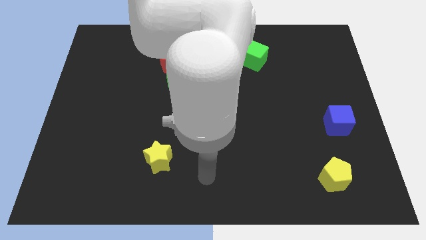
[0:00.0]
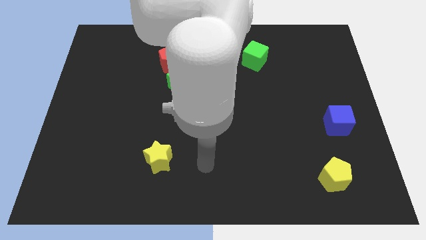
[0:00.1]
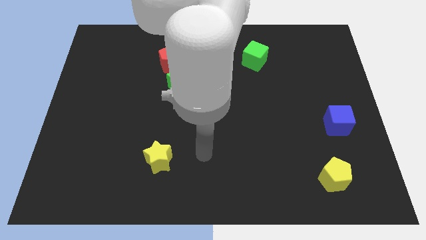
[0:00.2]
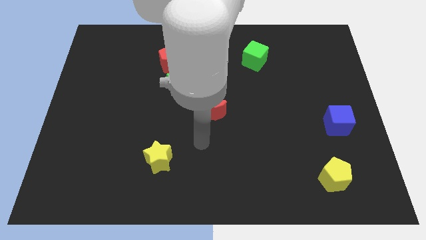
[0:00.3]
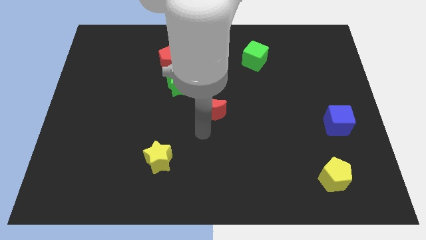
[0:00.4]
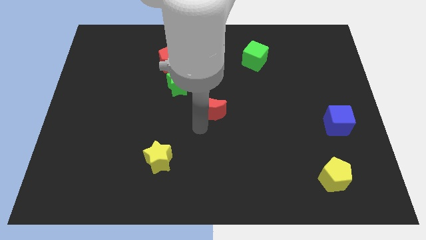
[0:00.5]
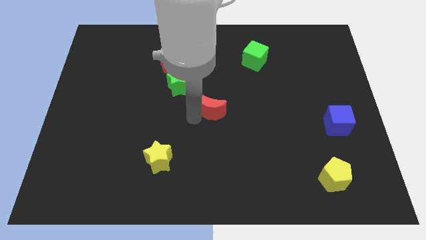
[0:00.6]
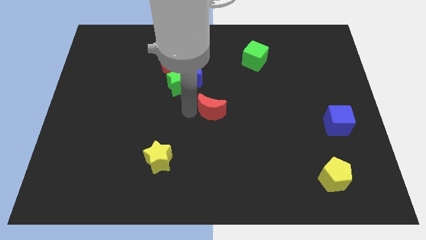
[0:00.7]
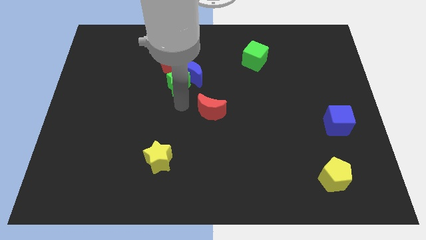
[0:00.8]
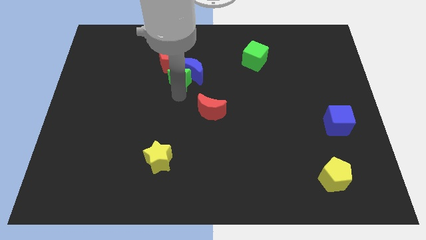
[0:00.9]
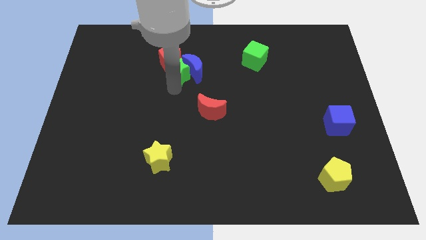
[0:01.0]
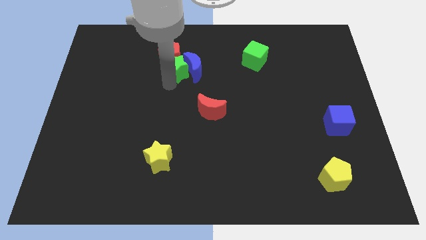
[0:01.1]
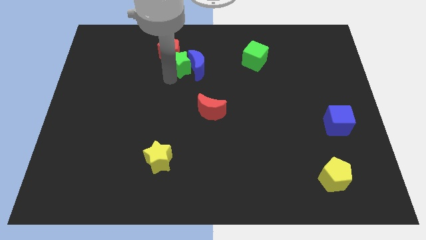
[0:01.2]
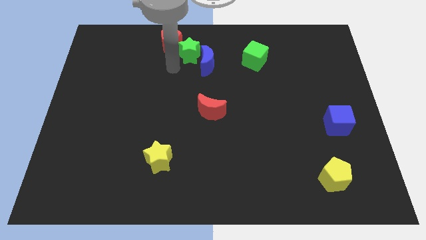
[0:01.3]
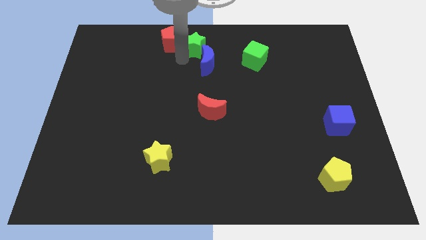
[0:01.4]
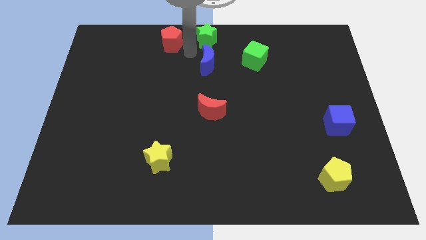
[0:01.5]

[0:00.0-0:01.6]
pull the blue moon apart from the green star and red pentagon

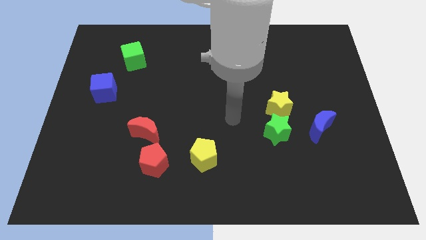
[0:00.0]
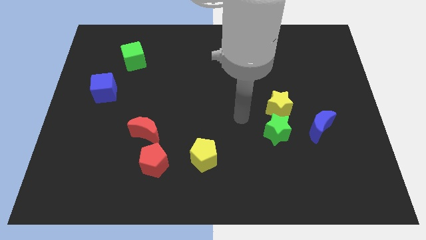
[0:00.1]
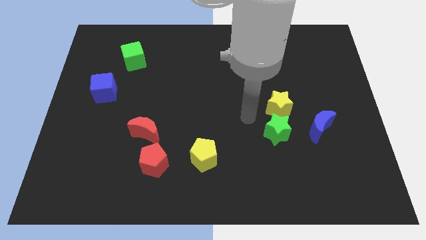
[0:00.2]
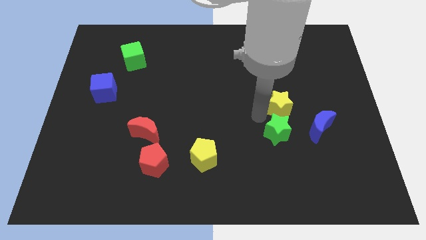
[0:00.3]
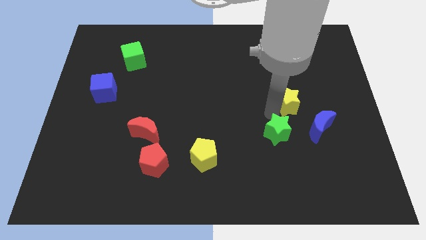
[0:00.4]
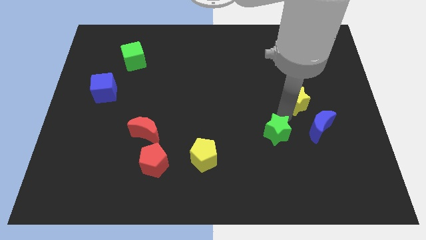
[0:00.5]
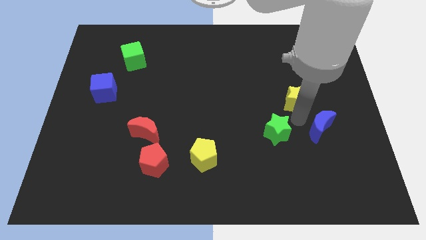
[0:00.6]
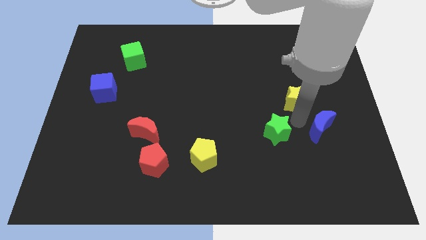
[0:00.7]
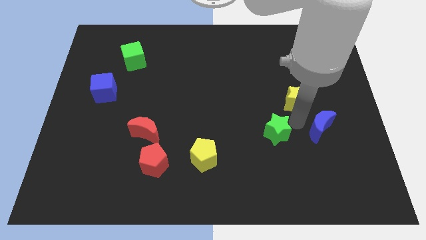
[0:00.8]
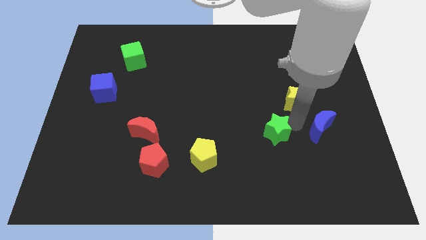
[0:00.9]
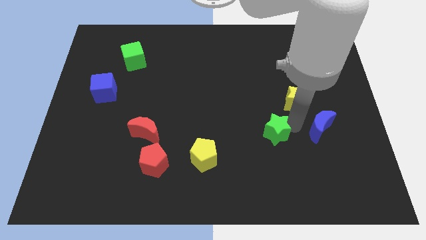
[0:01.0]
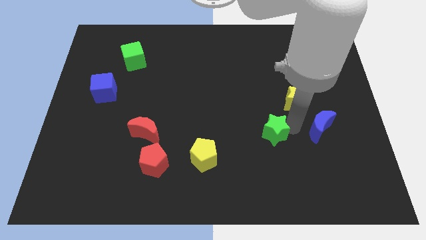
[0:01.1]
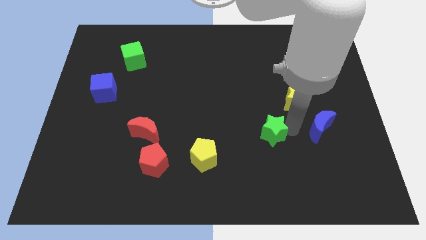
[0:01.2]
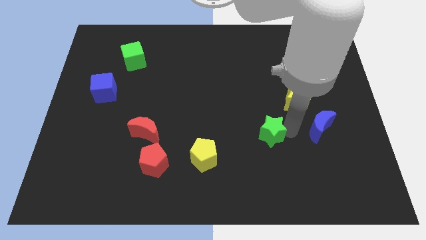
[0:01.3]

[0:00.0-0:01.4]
move the green star away from the yellow star and blue moon

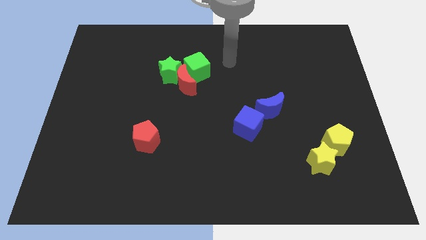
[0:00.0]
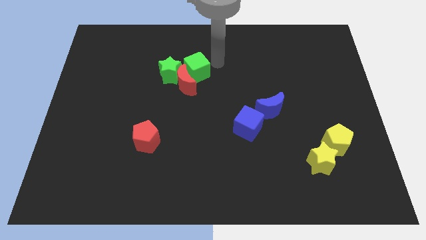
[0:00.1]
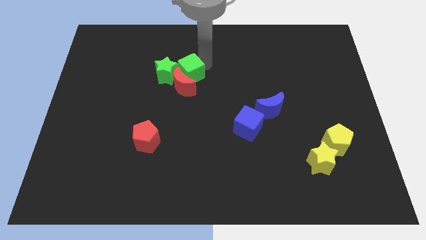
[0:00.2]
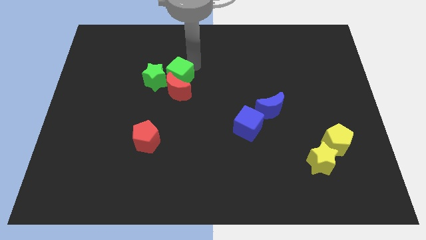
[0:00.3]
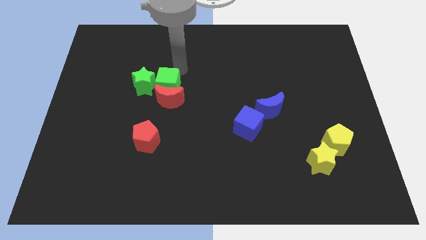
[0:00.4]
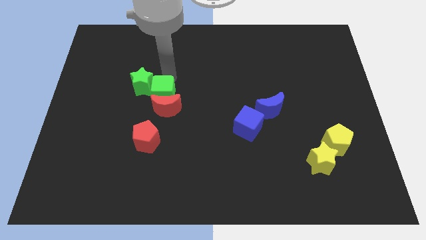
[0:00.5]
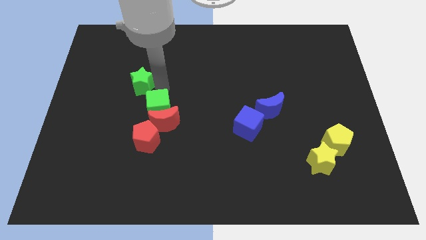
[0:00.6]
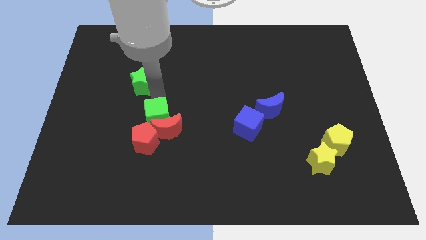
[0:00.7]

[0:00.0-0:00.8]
separate the red moon from the green star and green cube

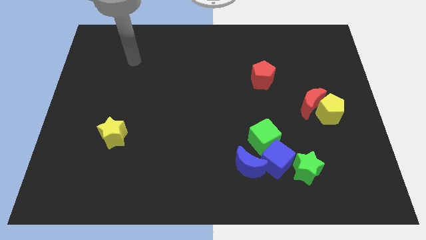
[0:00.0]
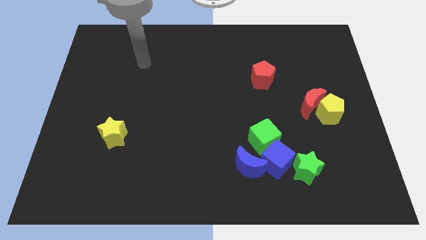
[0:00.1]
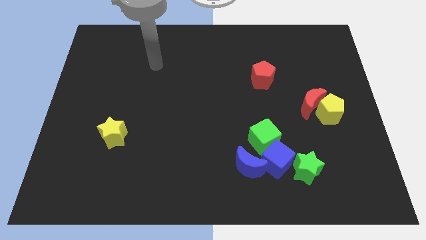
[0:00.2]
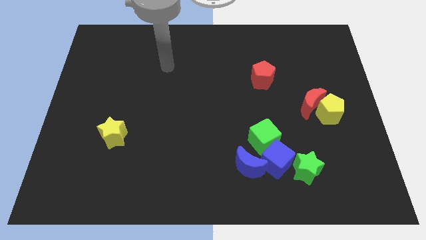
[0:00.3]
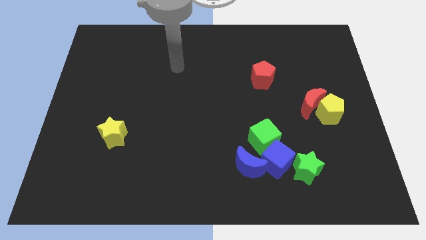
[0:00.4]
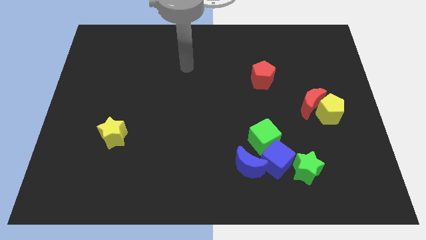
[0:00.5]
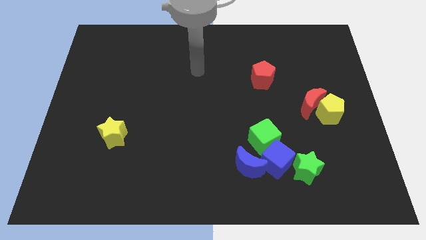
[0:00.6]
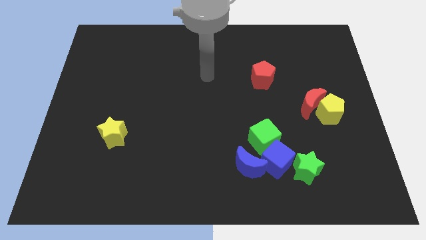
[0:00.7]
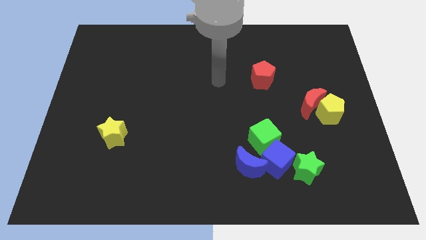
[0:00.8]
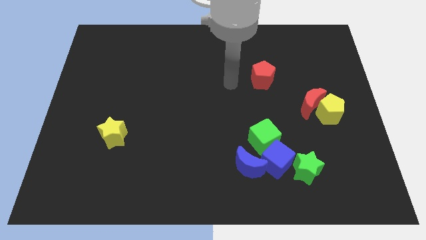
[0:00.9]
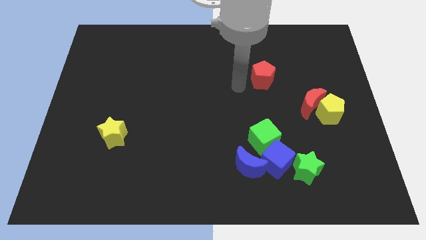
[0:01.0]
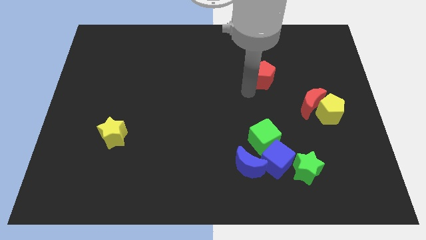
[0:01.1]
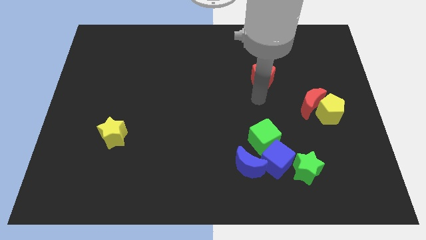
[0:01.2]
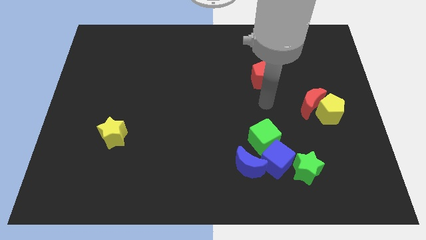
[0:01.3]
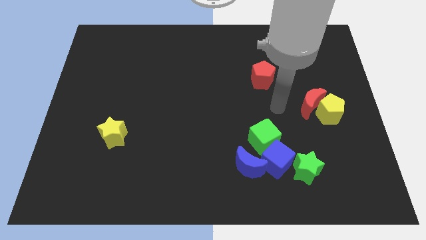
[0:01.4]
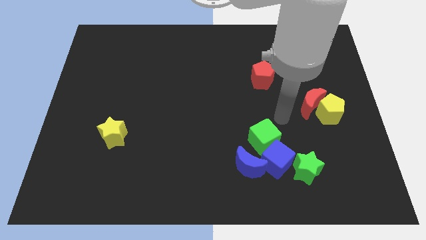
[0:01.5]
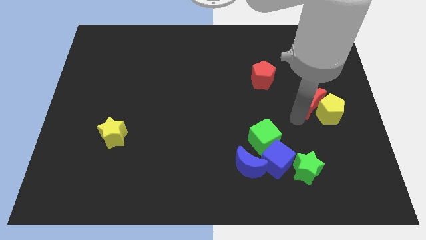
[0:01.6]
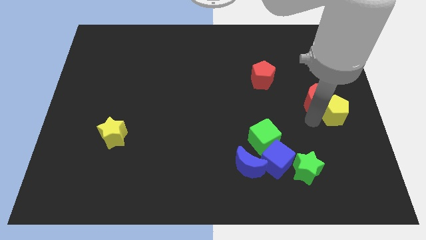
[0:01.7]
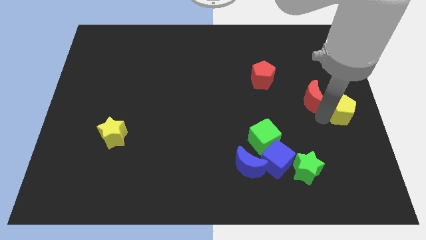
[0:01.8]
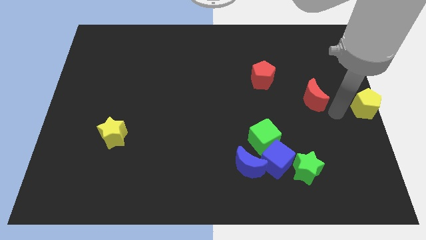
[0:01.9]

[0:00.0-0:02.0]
separate the red moon from the yellow pentagon

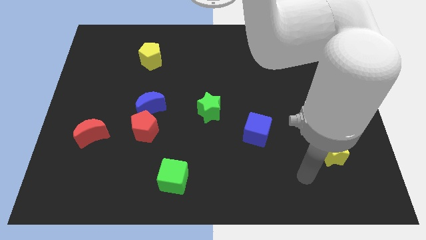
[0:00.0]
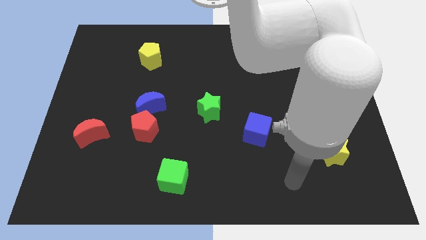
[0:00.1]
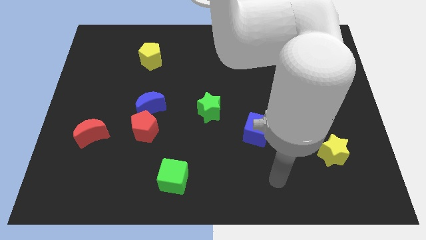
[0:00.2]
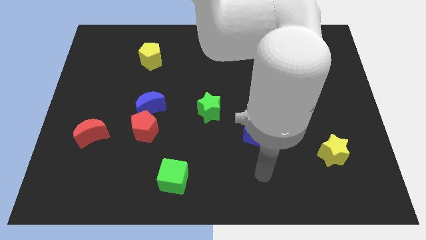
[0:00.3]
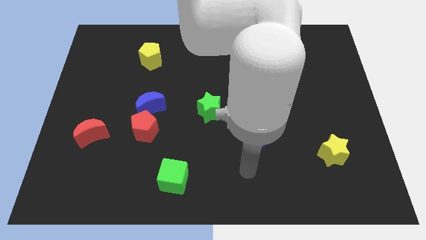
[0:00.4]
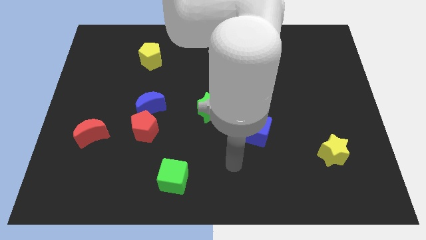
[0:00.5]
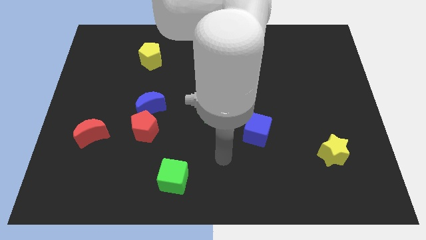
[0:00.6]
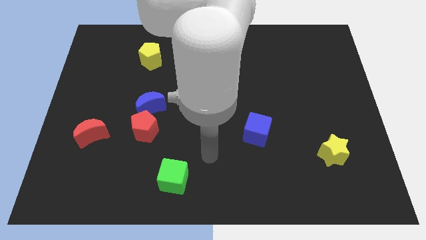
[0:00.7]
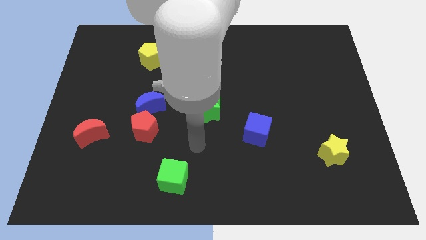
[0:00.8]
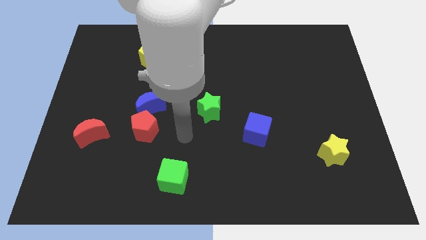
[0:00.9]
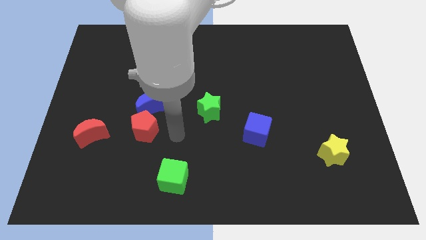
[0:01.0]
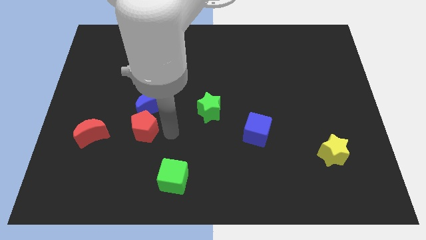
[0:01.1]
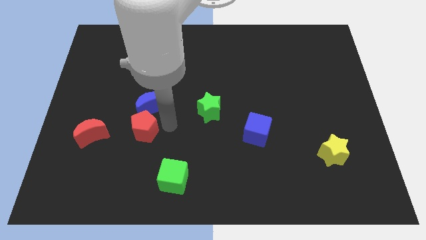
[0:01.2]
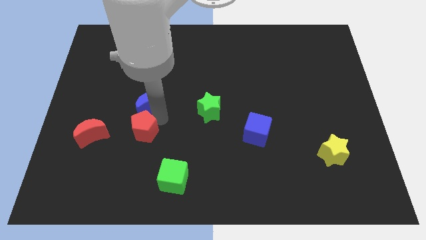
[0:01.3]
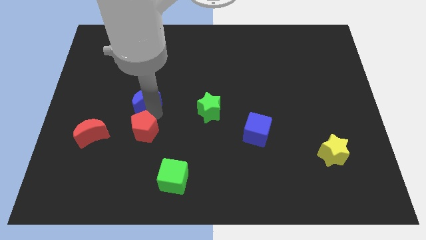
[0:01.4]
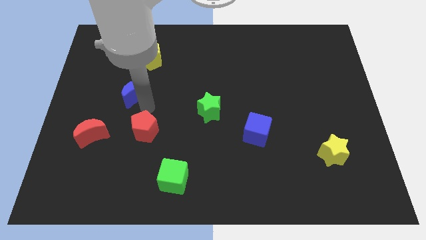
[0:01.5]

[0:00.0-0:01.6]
pull the red pentagon apart from the blue moon

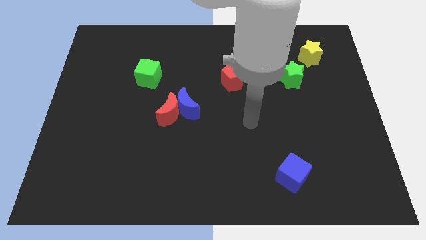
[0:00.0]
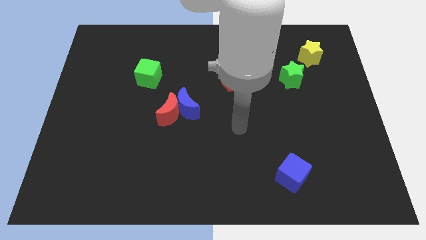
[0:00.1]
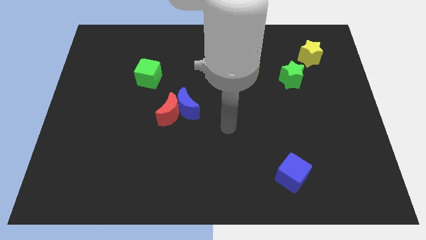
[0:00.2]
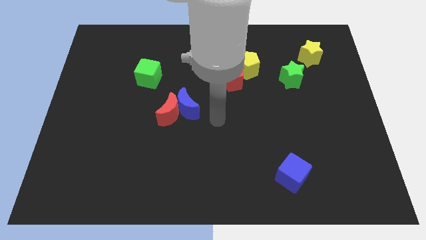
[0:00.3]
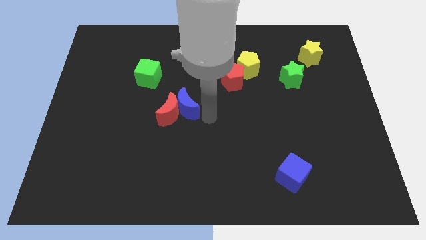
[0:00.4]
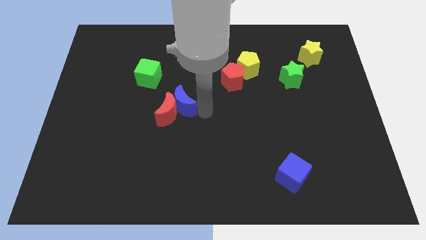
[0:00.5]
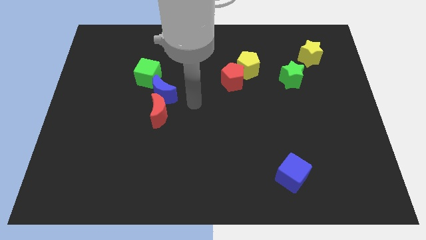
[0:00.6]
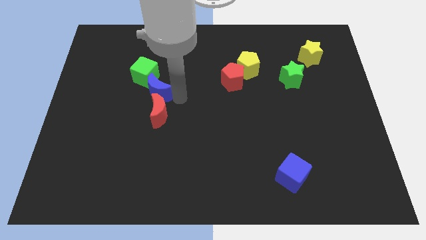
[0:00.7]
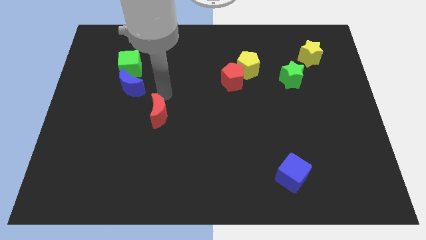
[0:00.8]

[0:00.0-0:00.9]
separate the red moon from the blue moon

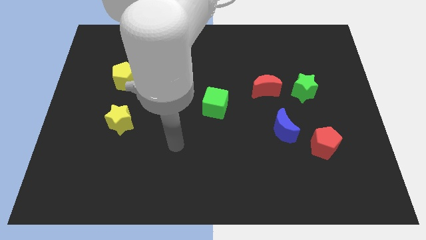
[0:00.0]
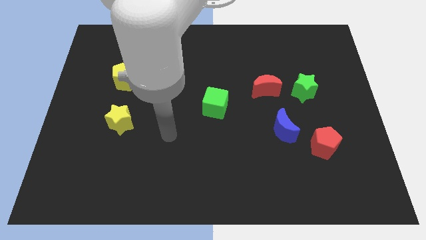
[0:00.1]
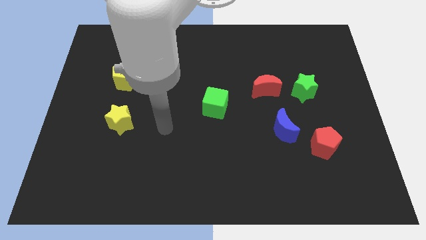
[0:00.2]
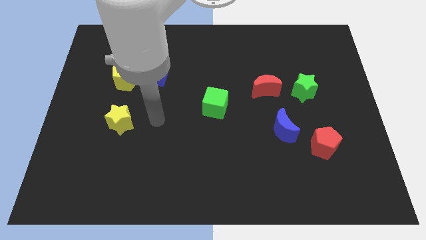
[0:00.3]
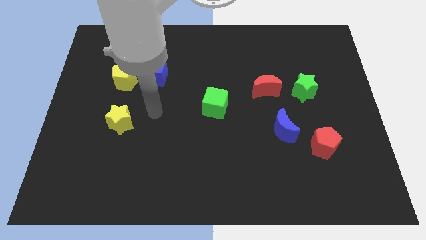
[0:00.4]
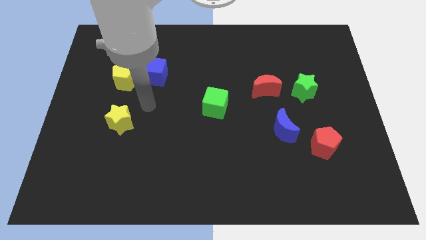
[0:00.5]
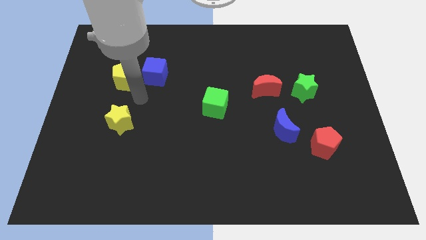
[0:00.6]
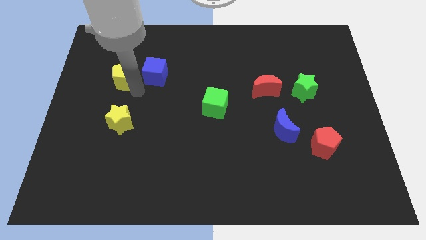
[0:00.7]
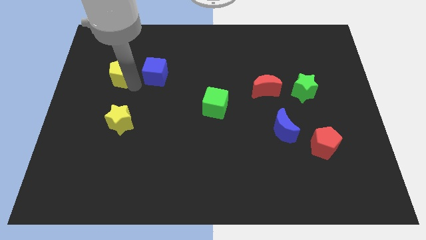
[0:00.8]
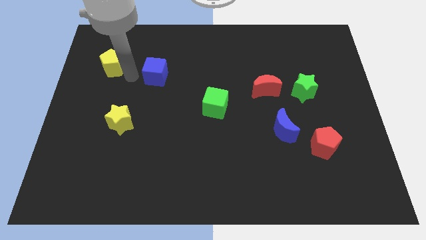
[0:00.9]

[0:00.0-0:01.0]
move the blue cube away from the yellow pentagon
